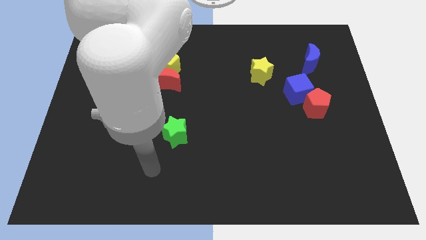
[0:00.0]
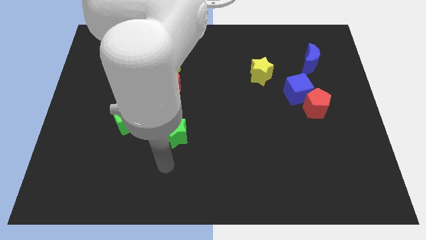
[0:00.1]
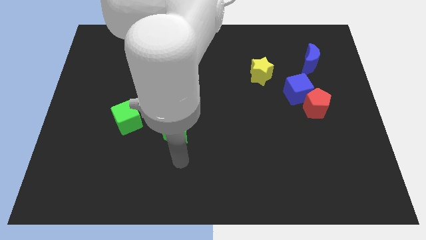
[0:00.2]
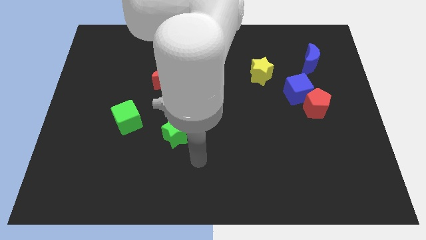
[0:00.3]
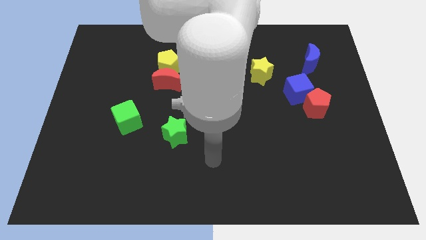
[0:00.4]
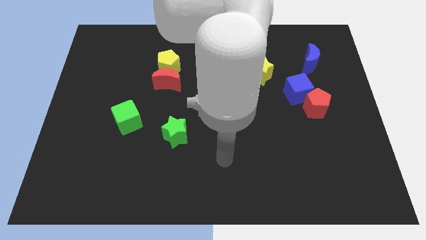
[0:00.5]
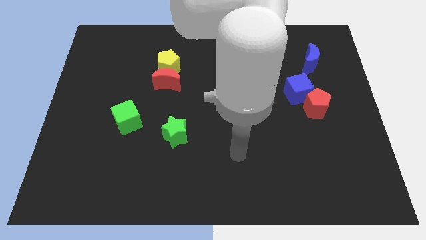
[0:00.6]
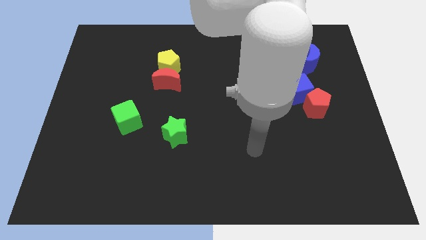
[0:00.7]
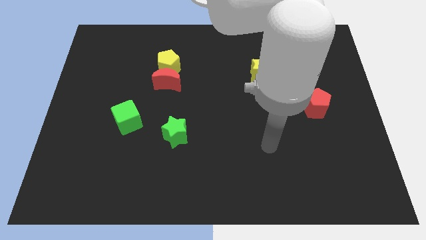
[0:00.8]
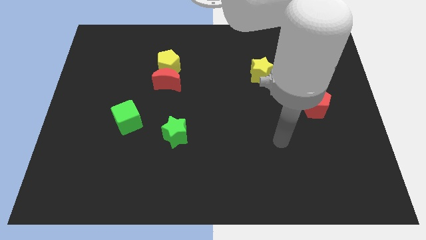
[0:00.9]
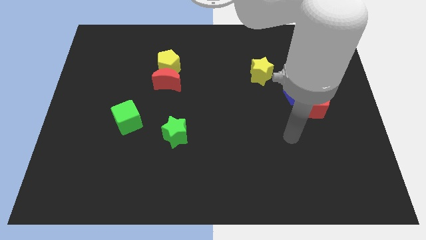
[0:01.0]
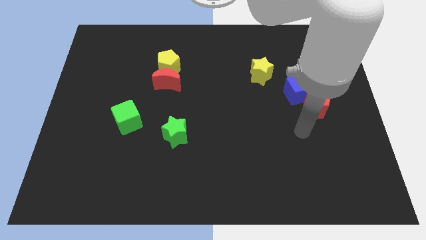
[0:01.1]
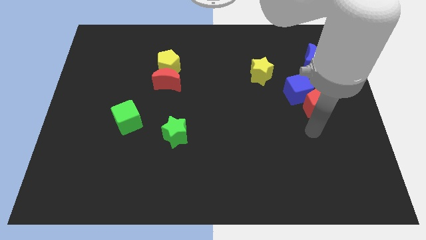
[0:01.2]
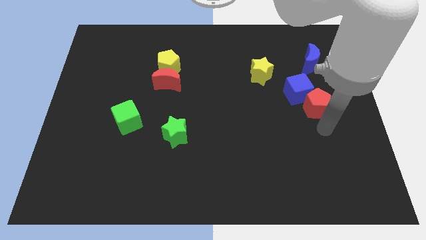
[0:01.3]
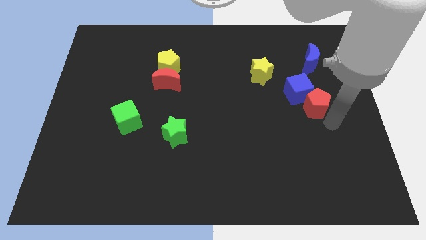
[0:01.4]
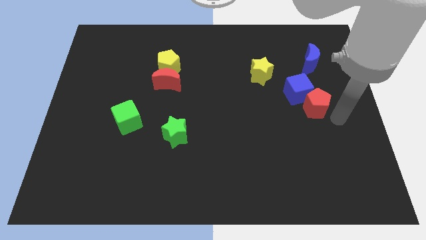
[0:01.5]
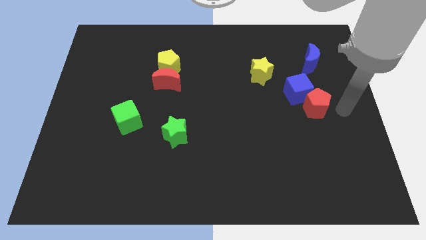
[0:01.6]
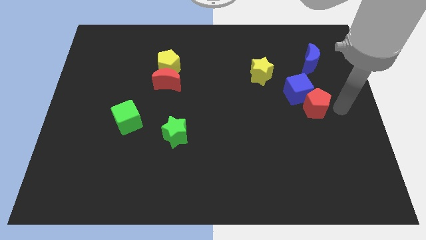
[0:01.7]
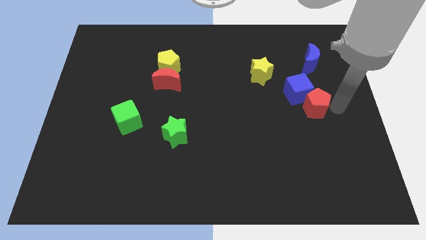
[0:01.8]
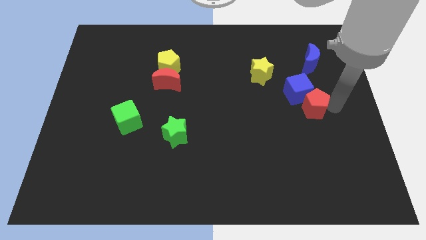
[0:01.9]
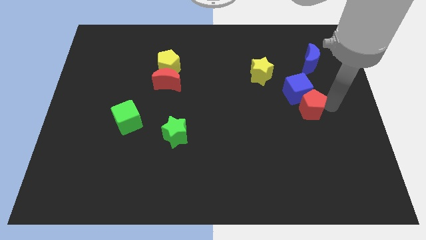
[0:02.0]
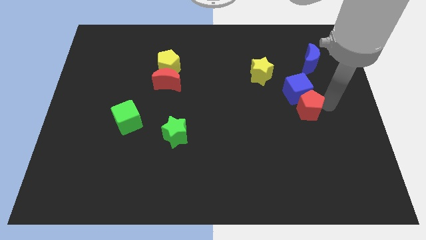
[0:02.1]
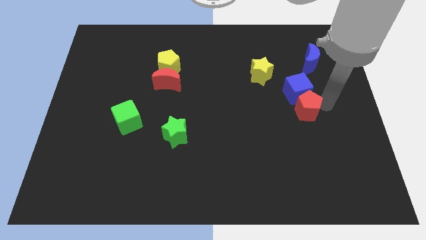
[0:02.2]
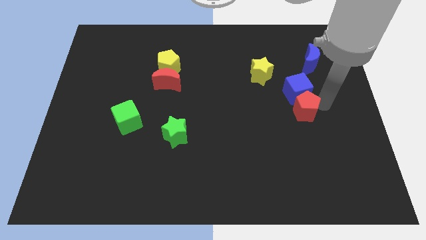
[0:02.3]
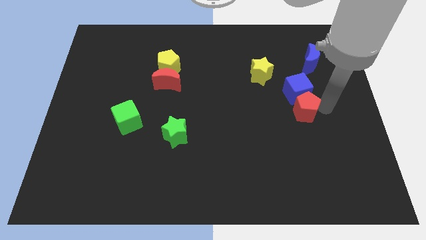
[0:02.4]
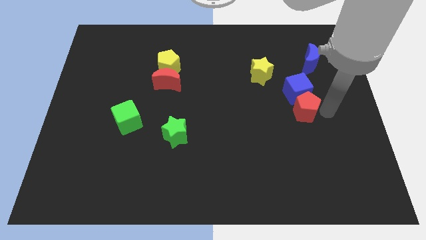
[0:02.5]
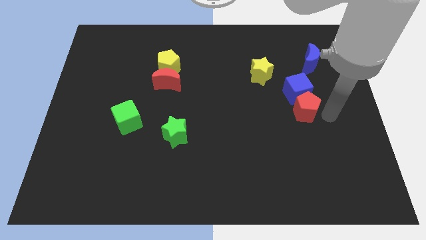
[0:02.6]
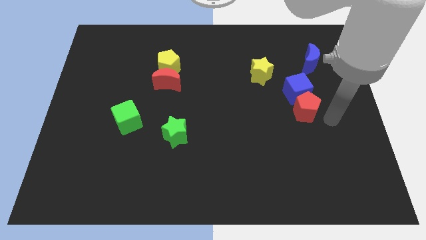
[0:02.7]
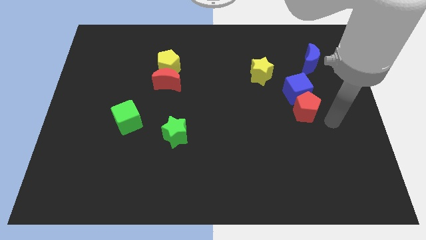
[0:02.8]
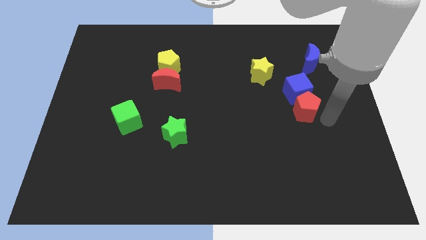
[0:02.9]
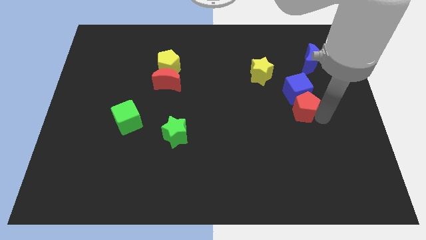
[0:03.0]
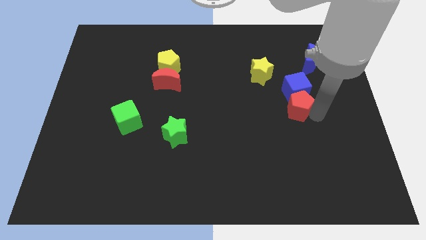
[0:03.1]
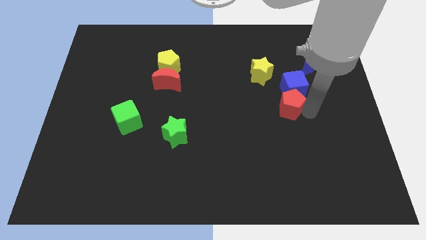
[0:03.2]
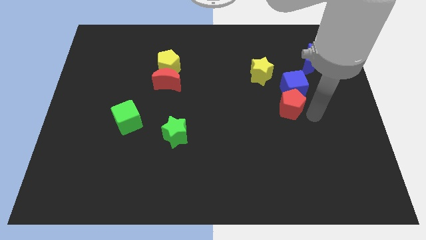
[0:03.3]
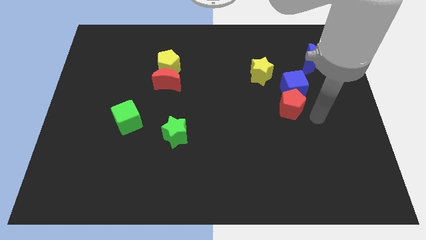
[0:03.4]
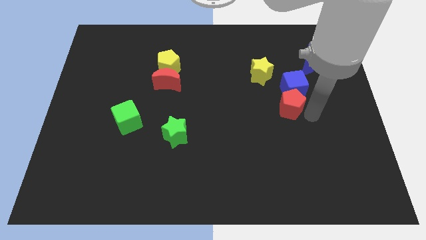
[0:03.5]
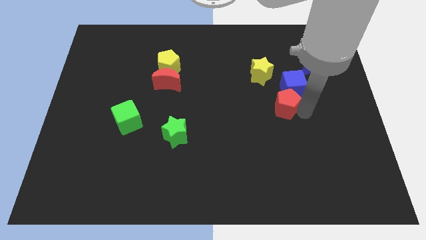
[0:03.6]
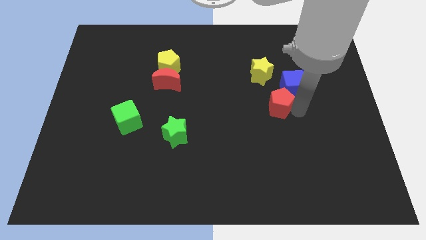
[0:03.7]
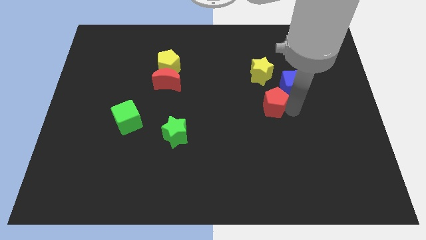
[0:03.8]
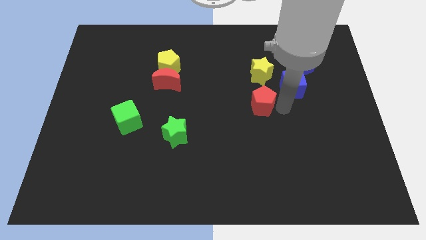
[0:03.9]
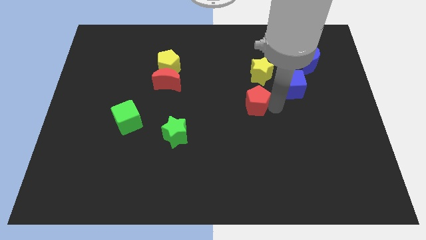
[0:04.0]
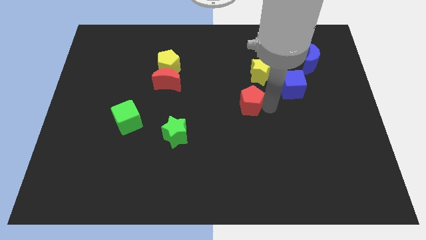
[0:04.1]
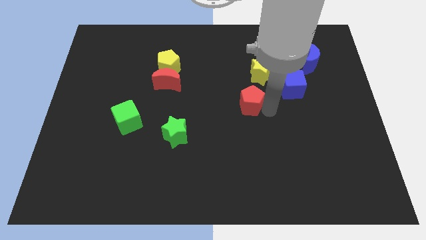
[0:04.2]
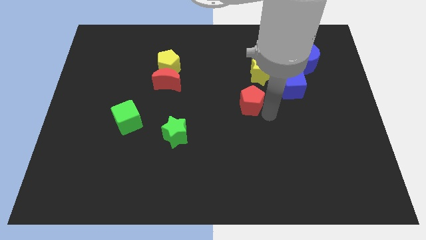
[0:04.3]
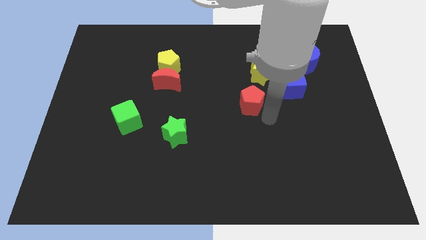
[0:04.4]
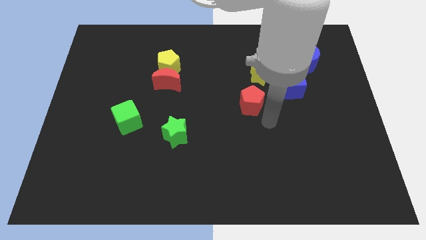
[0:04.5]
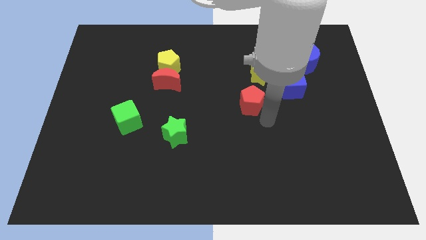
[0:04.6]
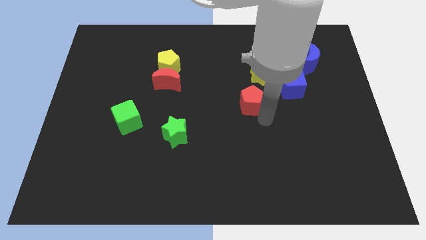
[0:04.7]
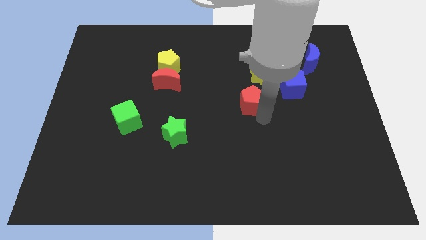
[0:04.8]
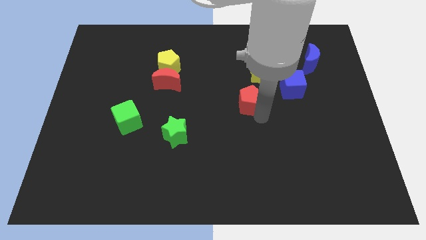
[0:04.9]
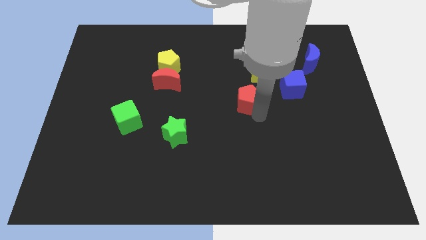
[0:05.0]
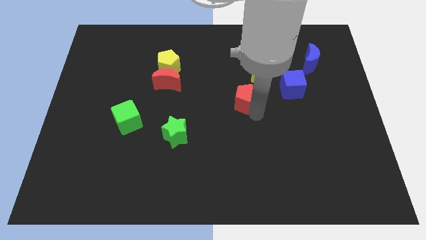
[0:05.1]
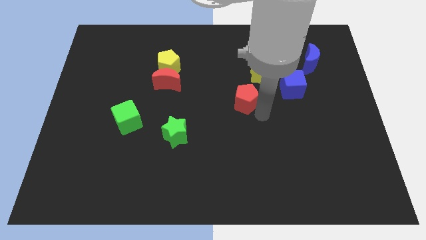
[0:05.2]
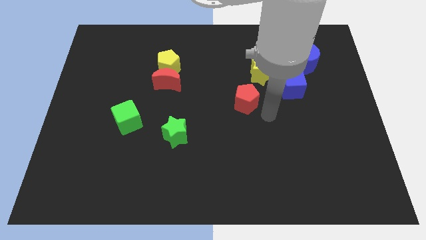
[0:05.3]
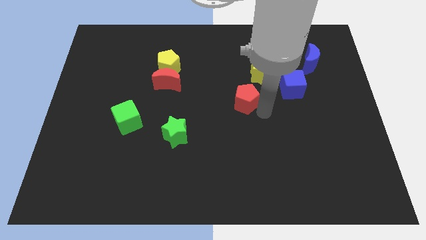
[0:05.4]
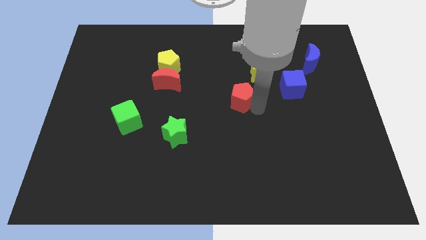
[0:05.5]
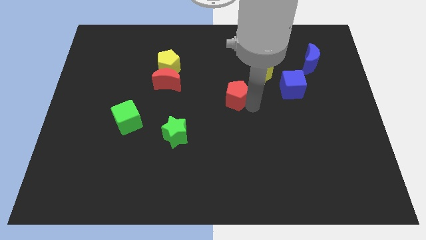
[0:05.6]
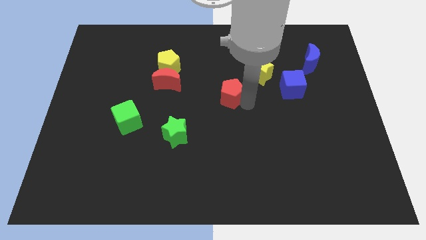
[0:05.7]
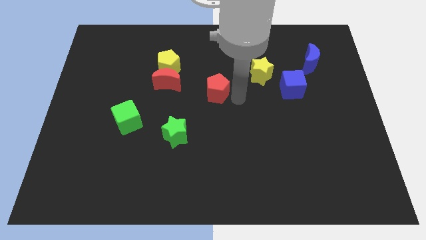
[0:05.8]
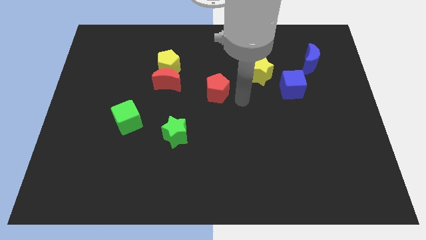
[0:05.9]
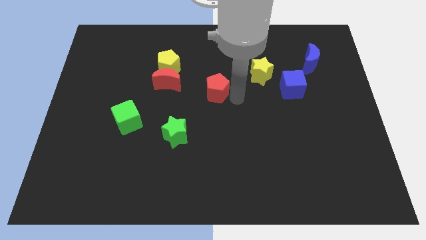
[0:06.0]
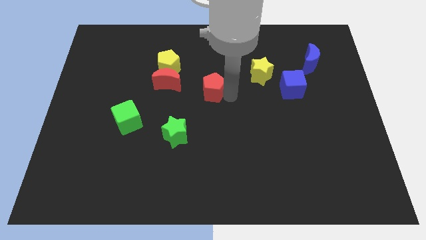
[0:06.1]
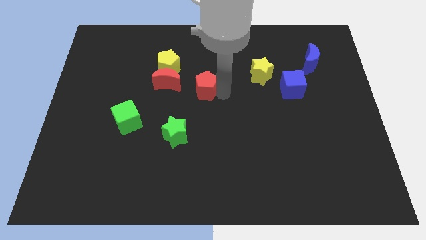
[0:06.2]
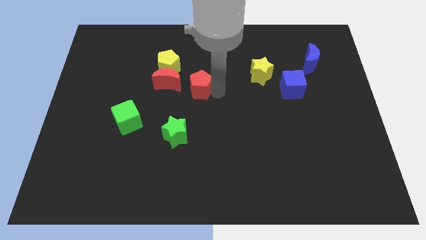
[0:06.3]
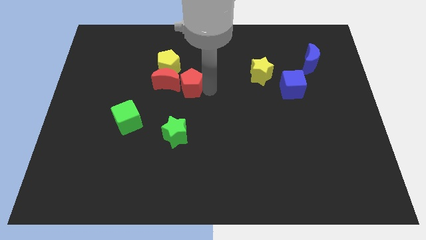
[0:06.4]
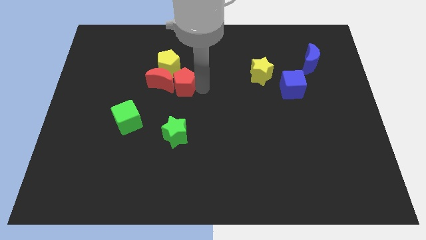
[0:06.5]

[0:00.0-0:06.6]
slide the red pentagon towards the red moon
